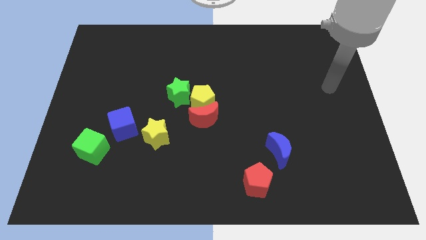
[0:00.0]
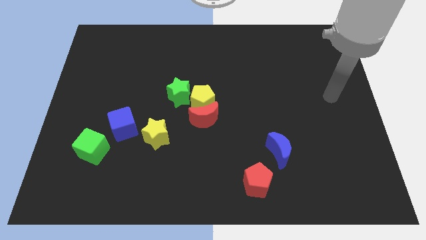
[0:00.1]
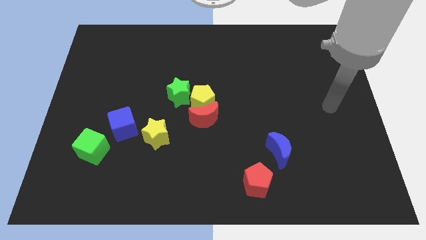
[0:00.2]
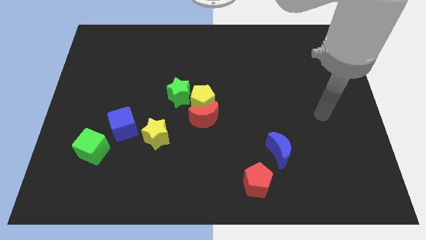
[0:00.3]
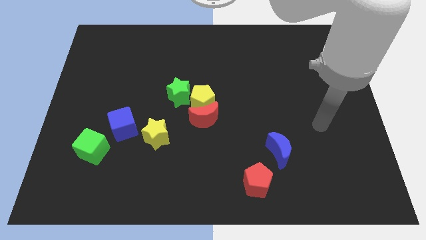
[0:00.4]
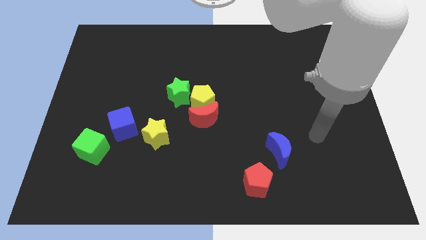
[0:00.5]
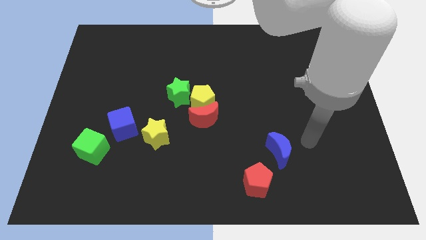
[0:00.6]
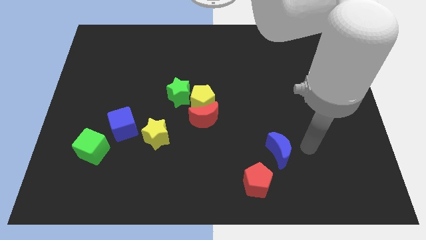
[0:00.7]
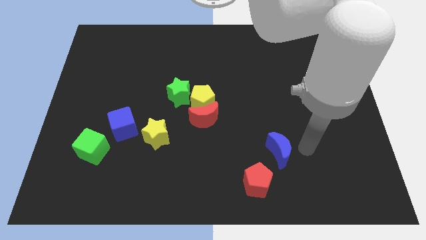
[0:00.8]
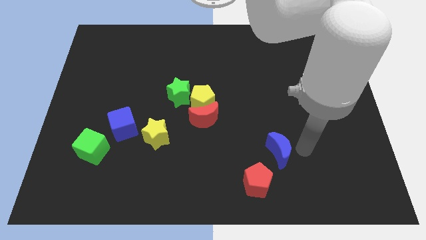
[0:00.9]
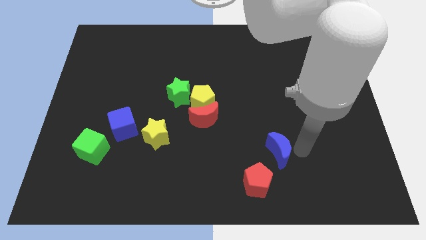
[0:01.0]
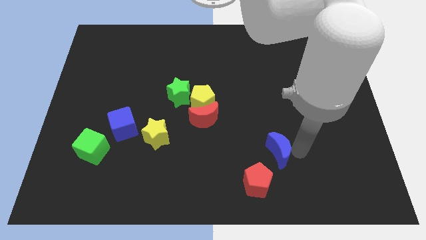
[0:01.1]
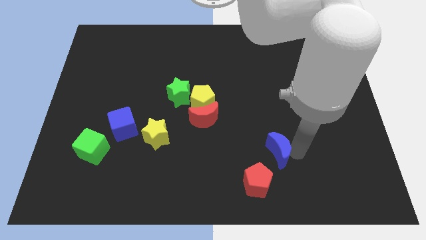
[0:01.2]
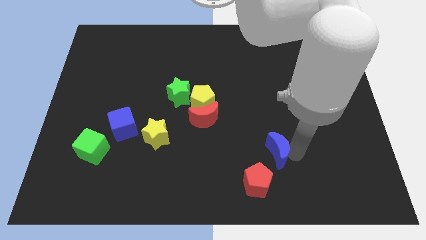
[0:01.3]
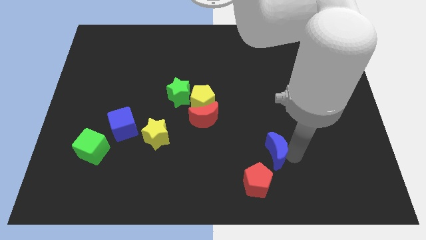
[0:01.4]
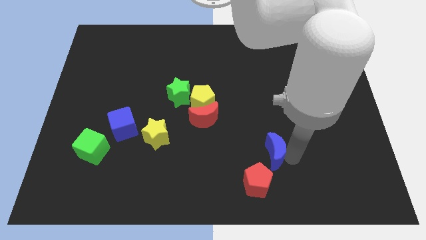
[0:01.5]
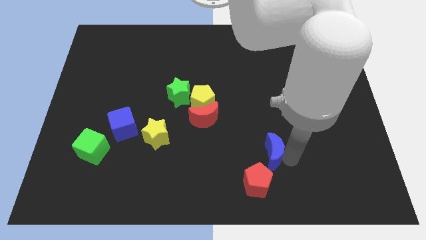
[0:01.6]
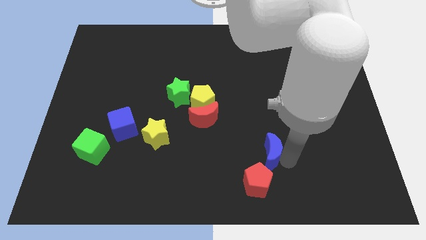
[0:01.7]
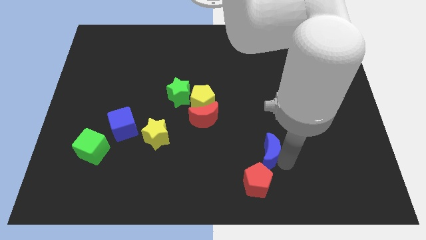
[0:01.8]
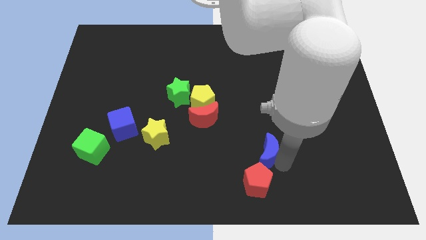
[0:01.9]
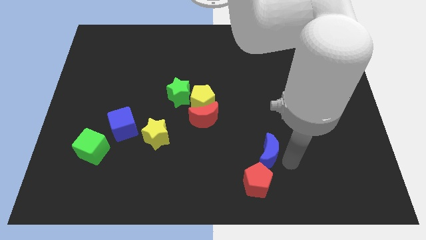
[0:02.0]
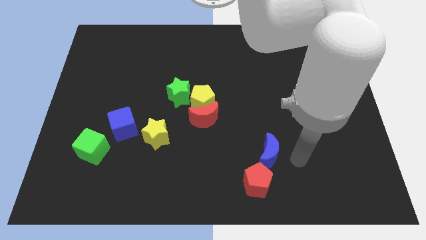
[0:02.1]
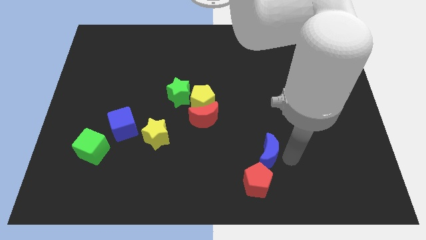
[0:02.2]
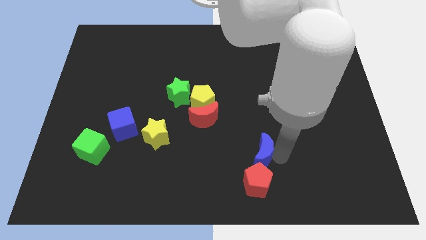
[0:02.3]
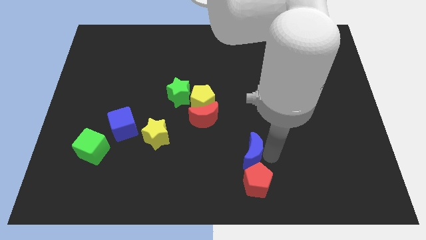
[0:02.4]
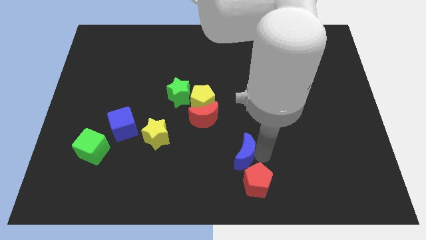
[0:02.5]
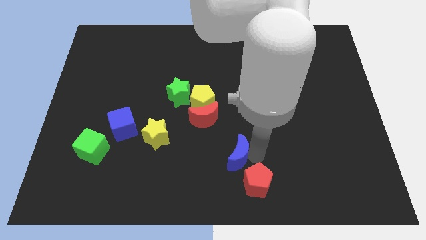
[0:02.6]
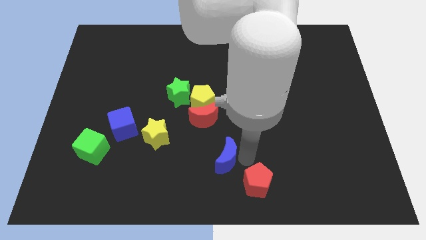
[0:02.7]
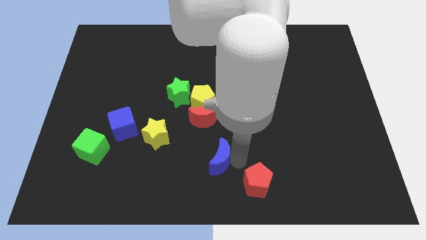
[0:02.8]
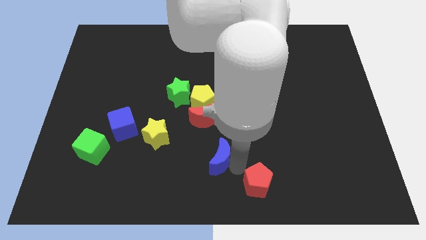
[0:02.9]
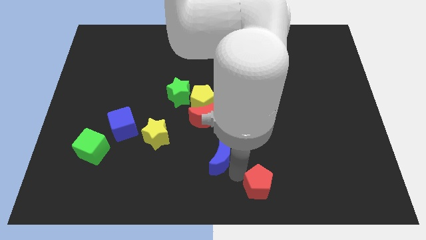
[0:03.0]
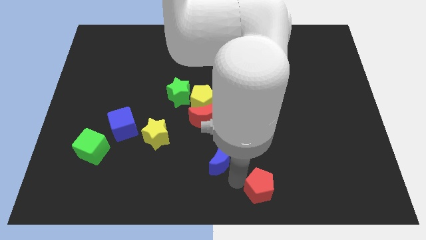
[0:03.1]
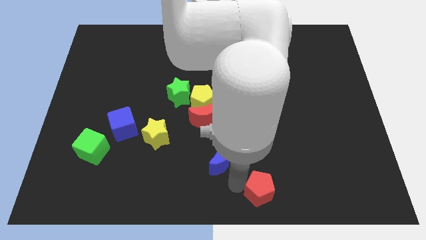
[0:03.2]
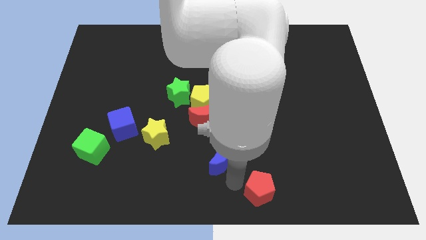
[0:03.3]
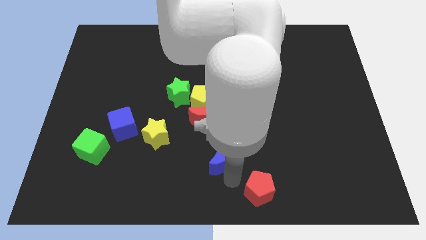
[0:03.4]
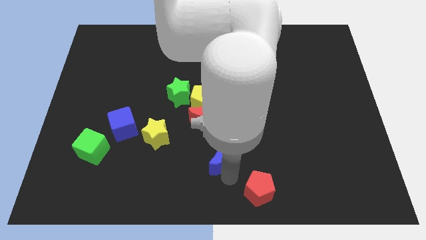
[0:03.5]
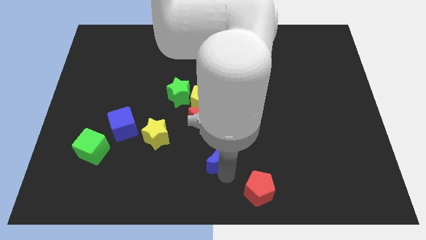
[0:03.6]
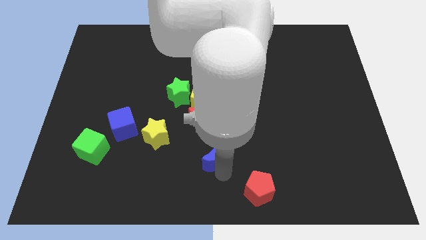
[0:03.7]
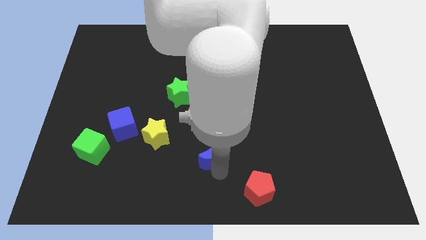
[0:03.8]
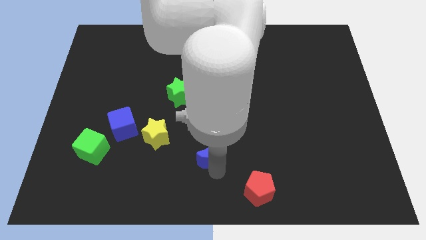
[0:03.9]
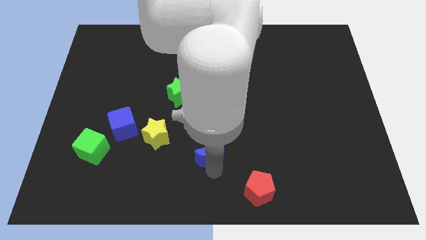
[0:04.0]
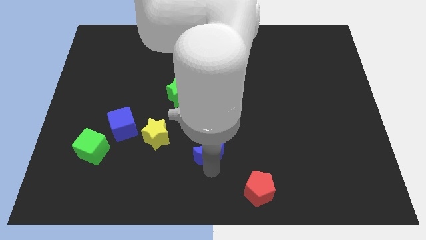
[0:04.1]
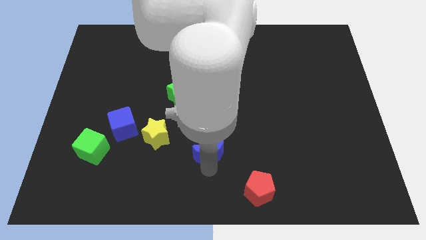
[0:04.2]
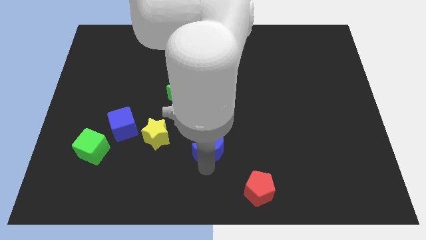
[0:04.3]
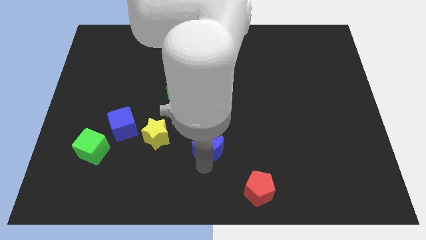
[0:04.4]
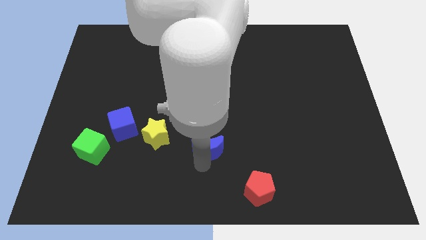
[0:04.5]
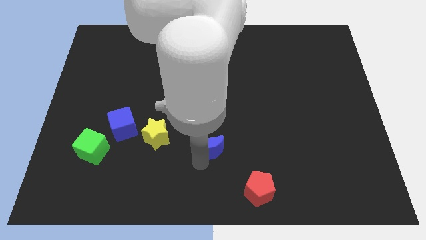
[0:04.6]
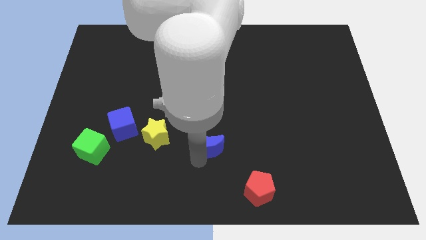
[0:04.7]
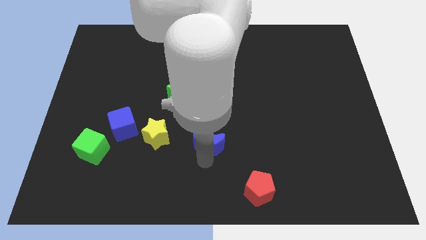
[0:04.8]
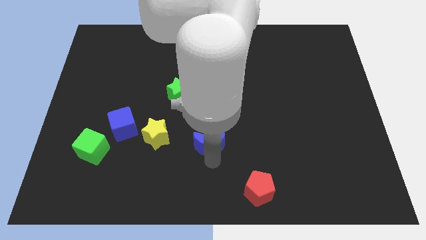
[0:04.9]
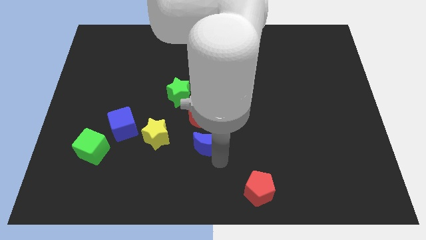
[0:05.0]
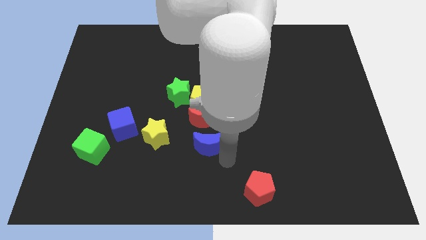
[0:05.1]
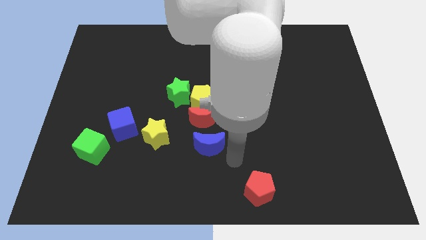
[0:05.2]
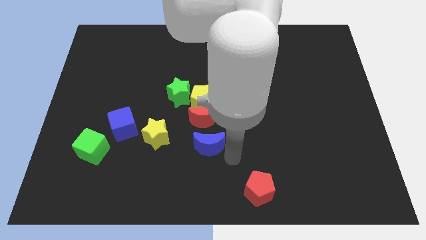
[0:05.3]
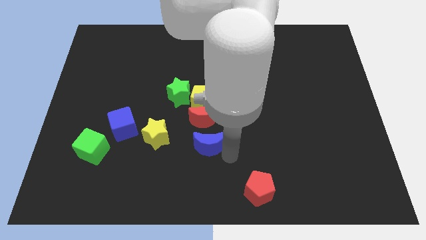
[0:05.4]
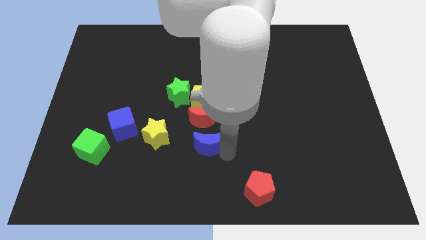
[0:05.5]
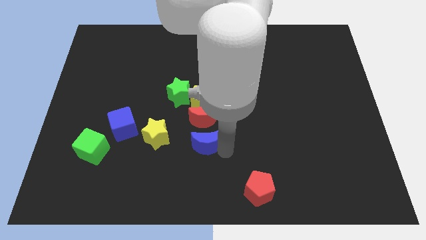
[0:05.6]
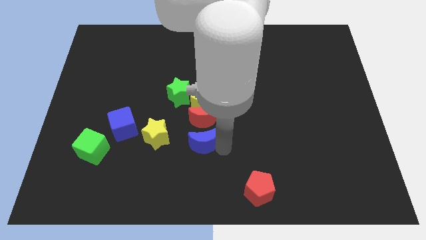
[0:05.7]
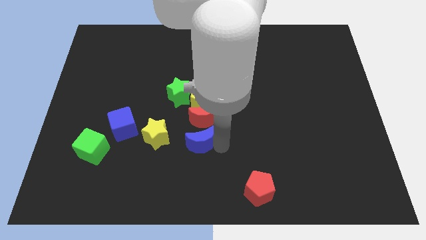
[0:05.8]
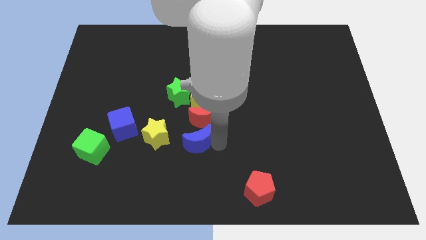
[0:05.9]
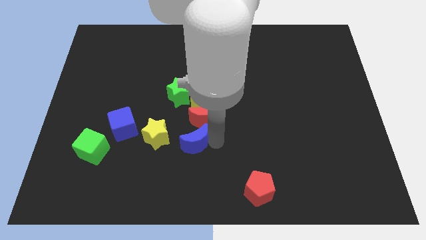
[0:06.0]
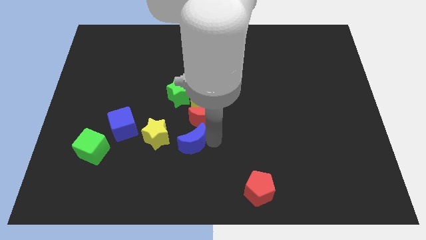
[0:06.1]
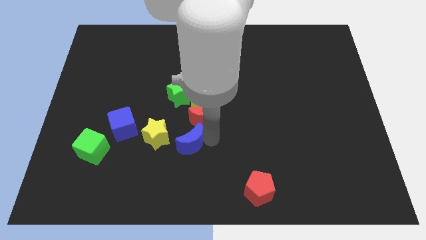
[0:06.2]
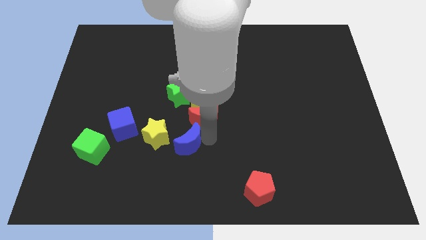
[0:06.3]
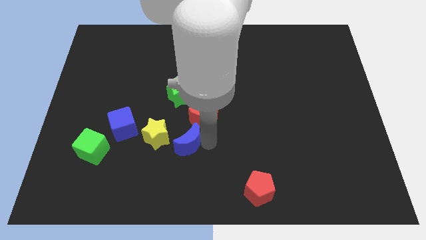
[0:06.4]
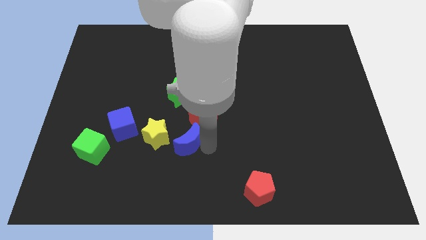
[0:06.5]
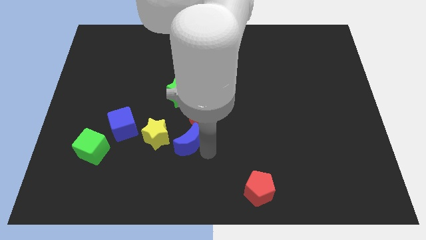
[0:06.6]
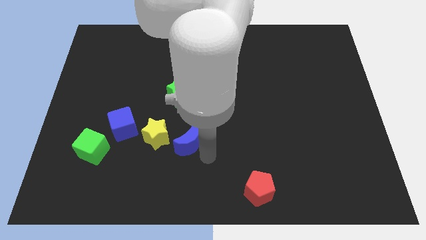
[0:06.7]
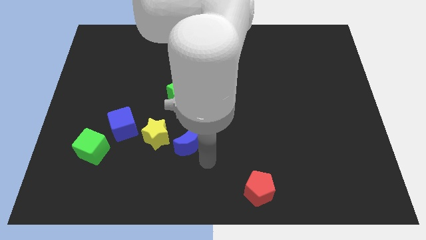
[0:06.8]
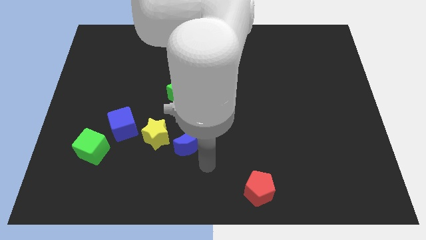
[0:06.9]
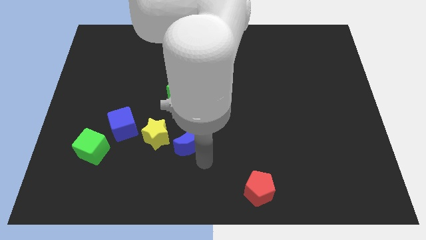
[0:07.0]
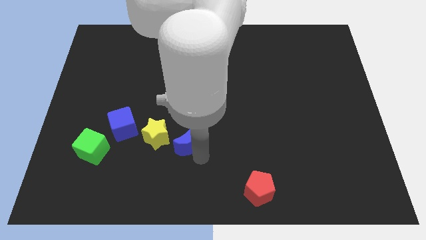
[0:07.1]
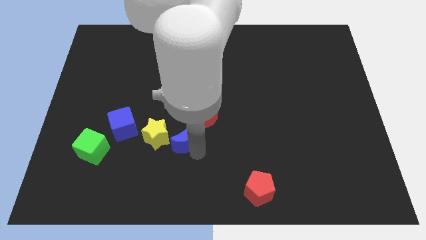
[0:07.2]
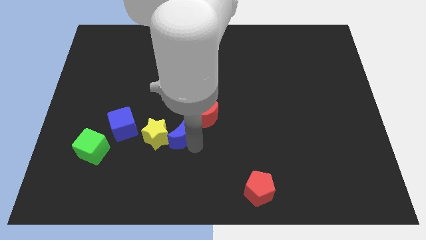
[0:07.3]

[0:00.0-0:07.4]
move the blue moon close to the yellow star

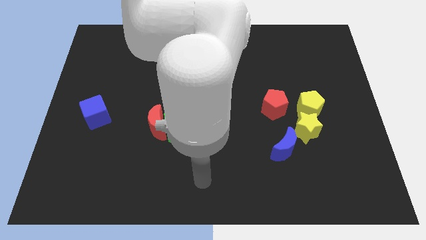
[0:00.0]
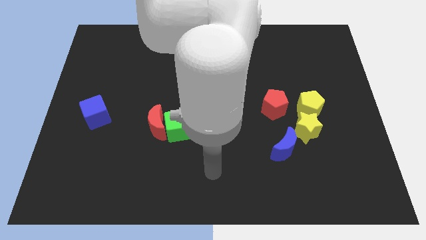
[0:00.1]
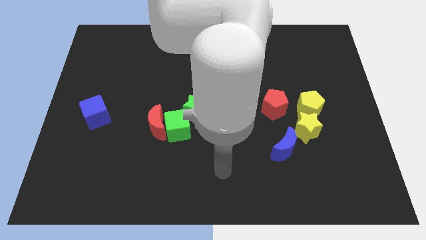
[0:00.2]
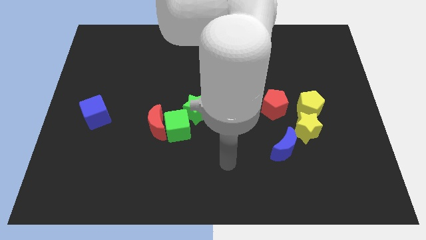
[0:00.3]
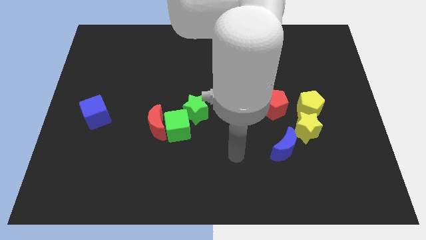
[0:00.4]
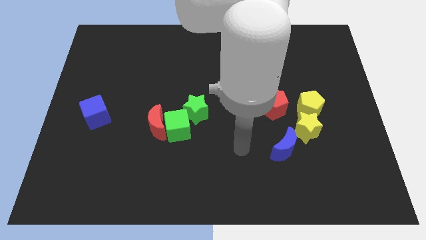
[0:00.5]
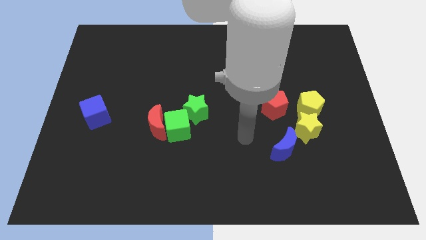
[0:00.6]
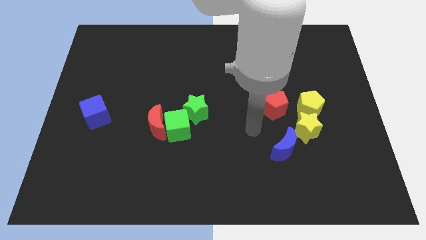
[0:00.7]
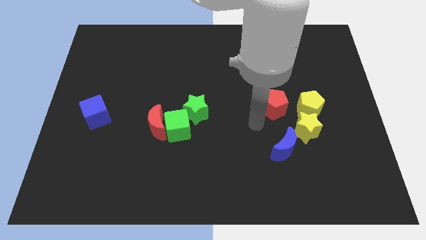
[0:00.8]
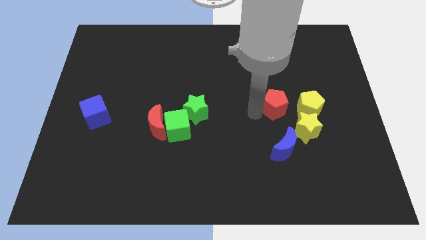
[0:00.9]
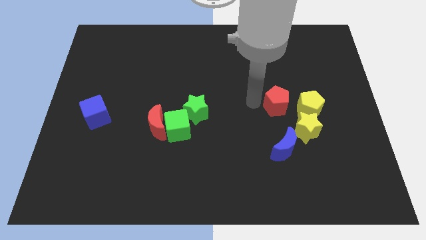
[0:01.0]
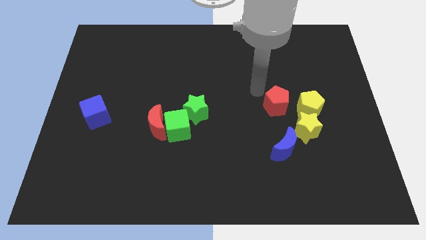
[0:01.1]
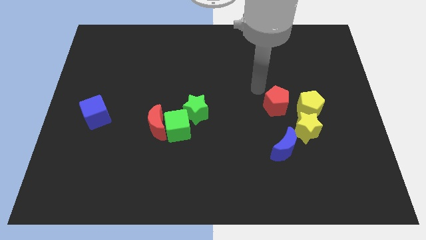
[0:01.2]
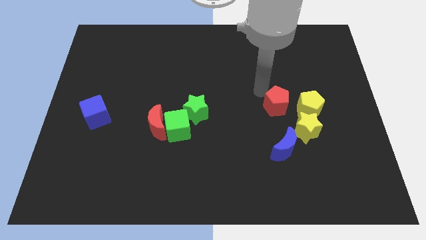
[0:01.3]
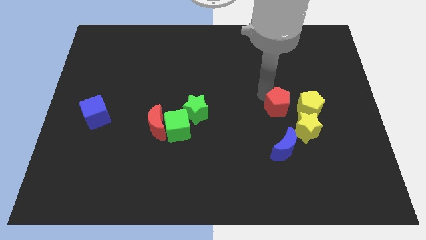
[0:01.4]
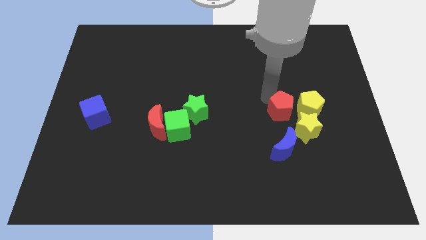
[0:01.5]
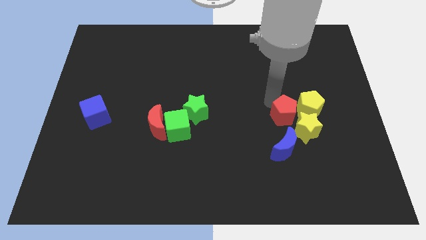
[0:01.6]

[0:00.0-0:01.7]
slide the red pentagon next to the yellow star
